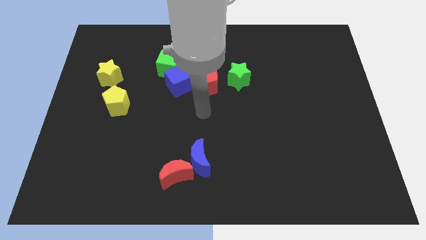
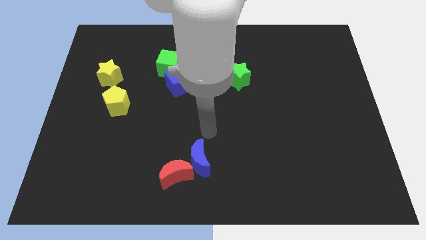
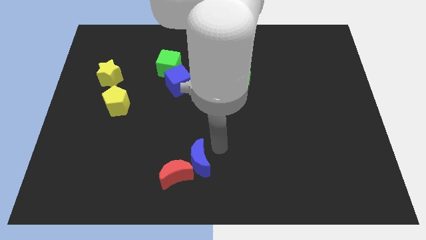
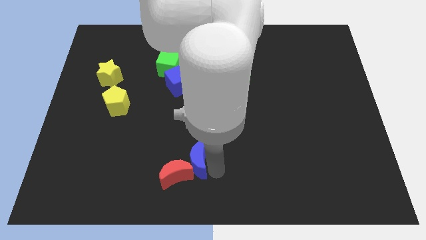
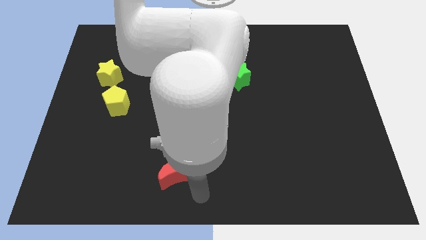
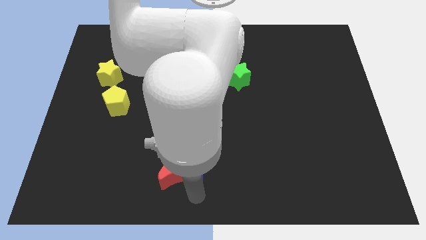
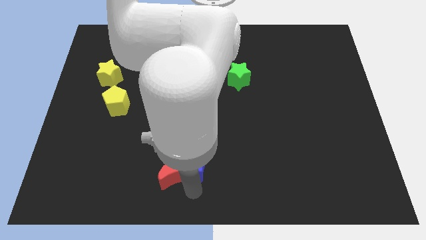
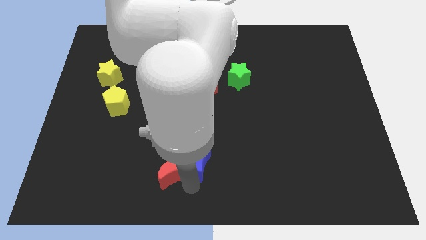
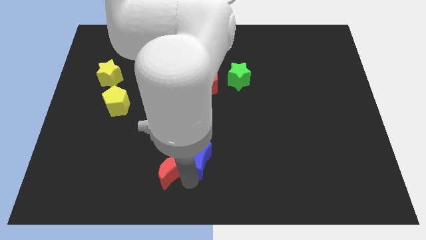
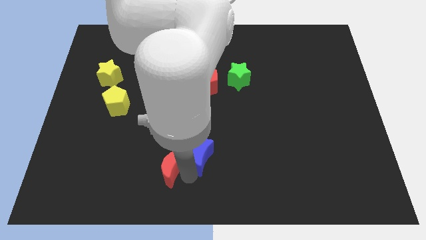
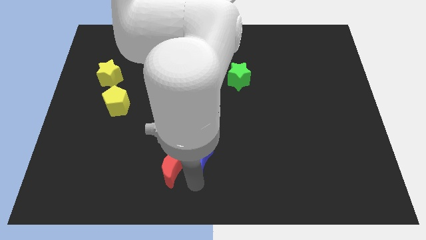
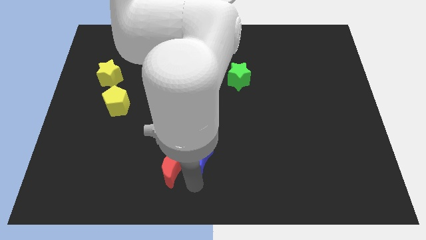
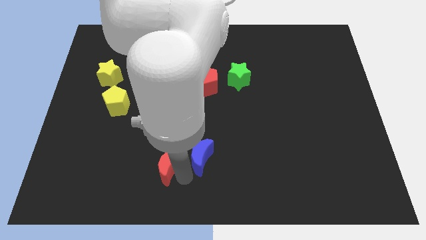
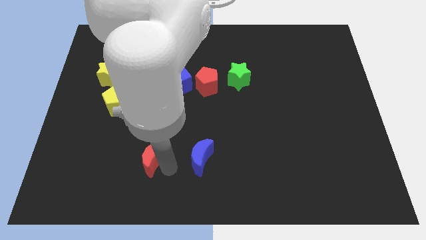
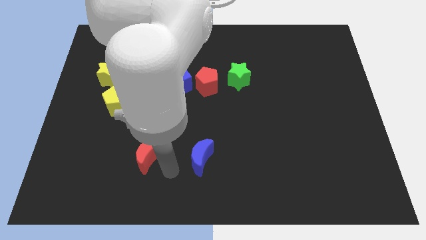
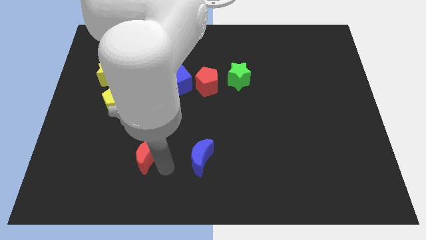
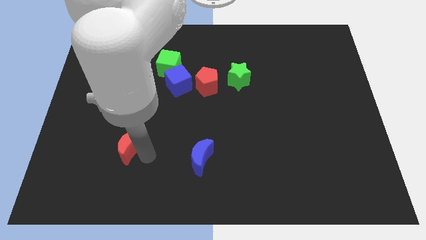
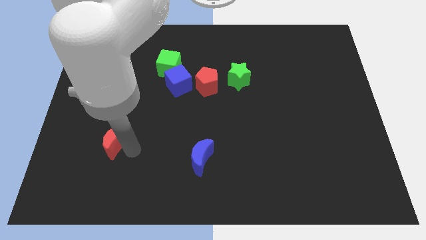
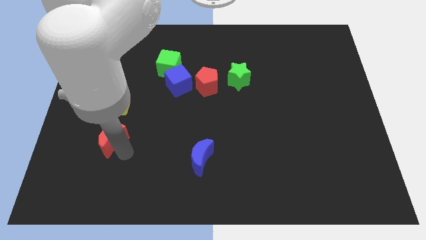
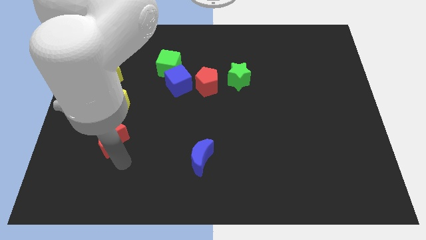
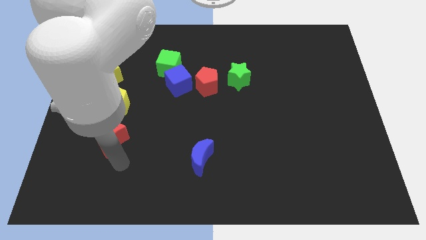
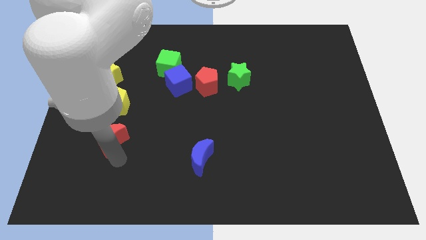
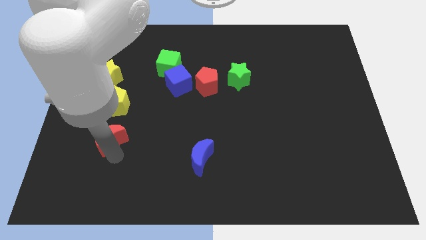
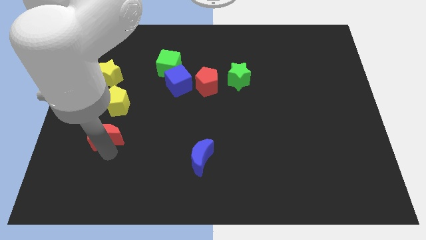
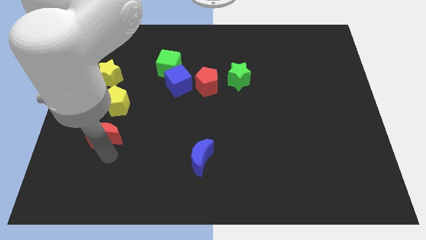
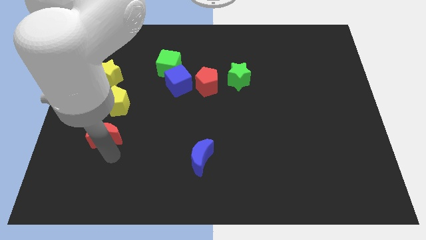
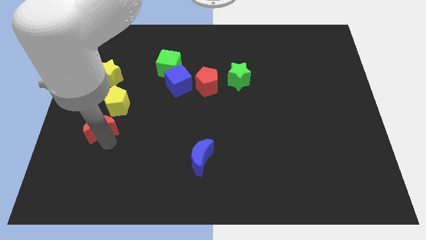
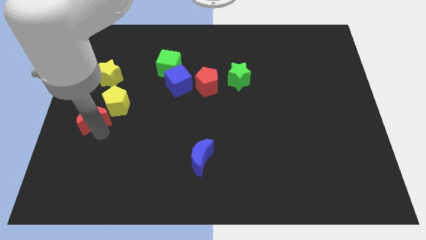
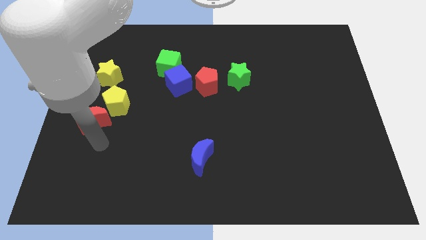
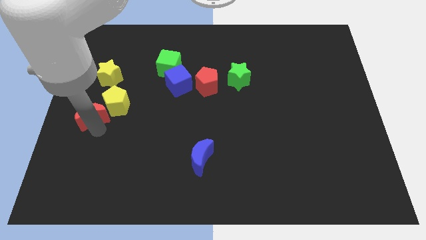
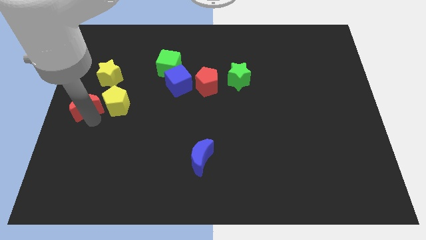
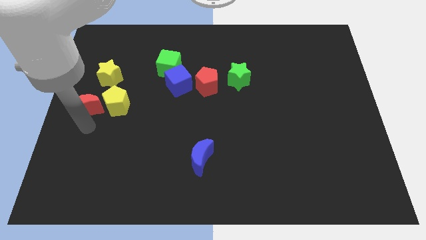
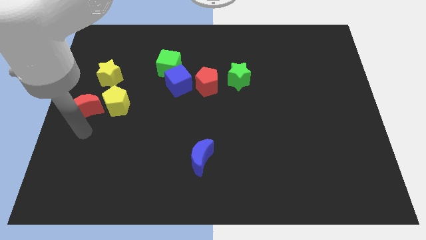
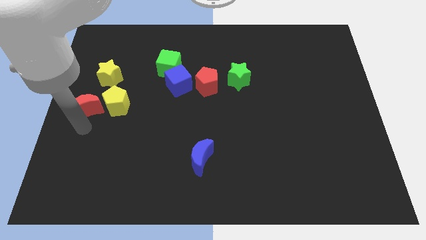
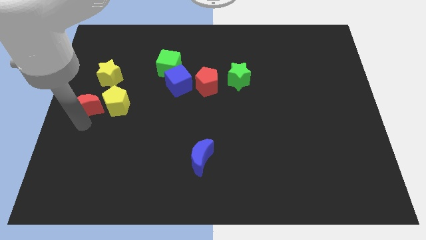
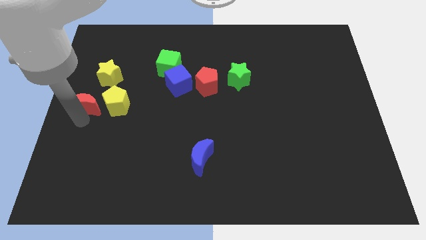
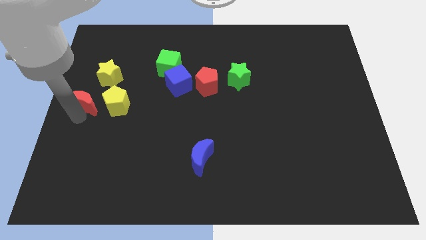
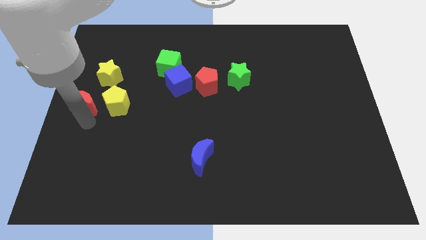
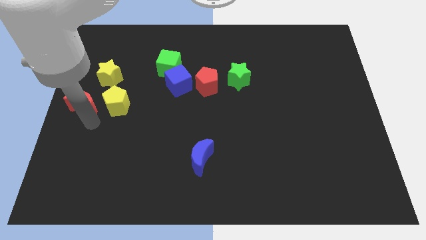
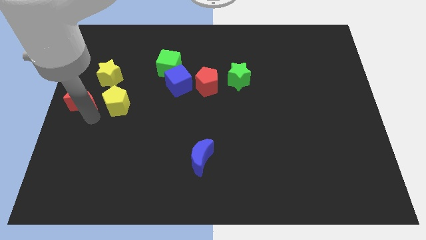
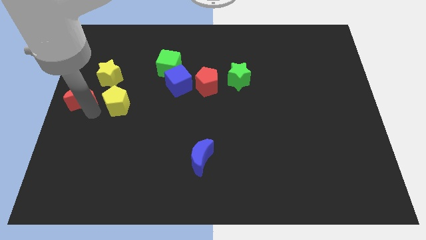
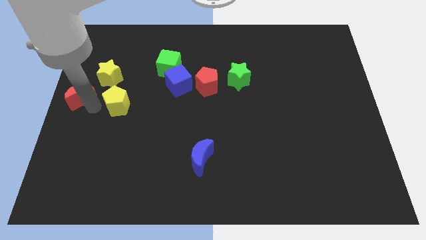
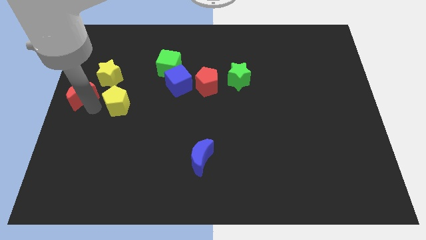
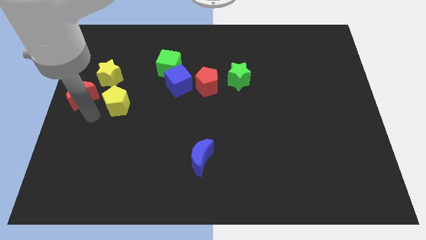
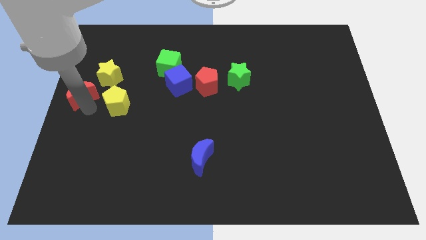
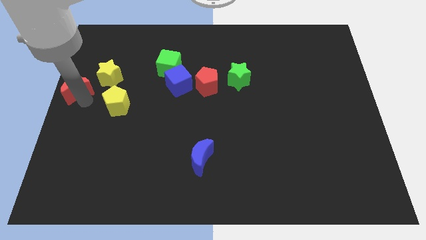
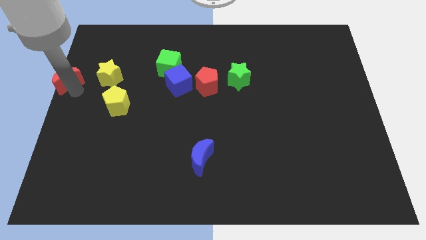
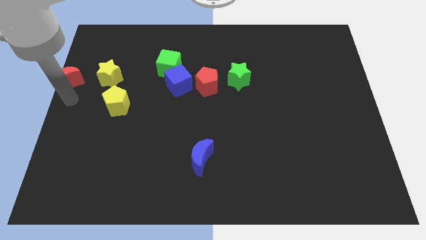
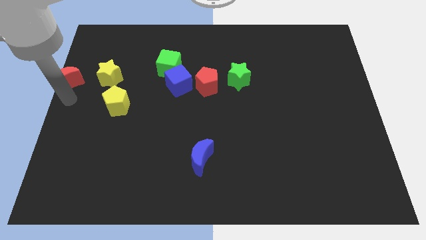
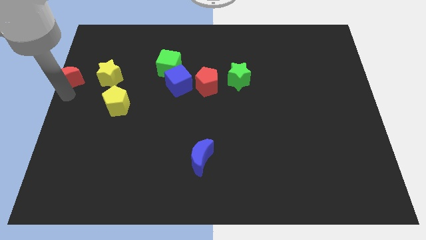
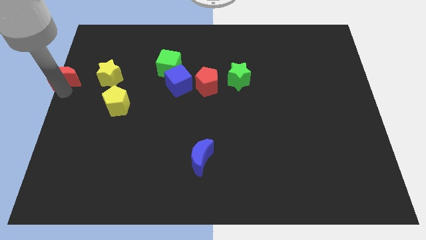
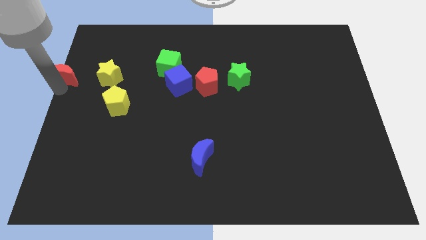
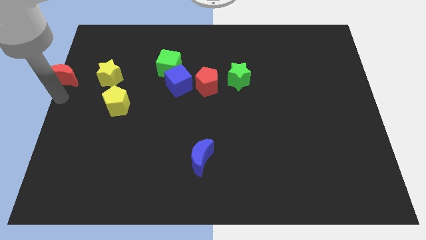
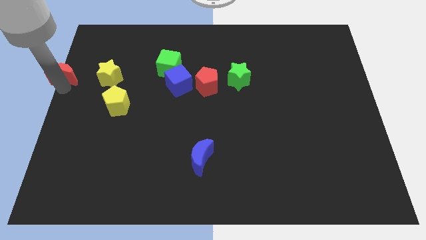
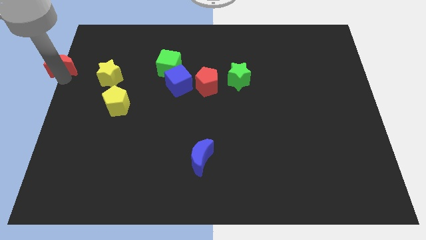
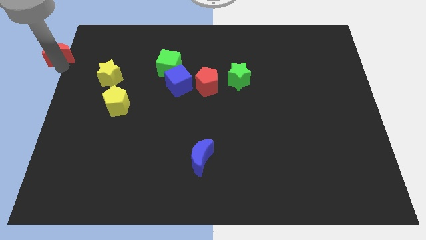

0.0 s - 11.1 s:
slide the red moon to the top left corner

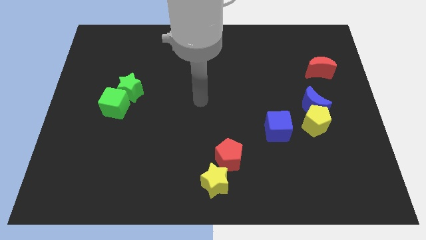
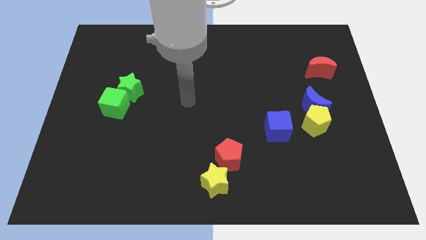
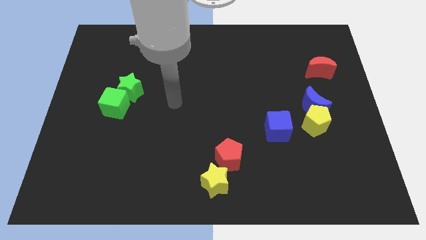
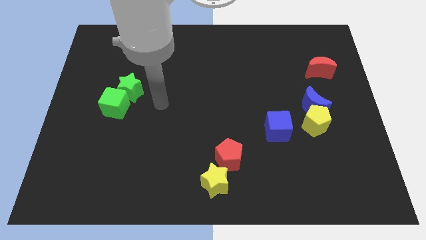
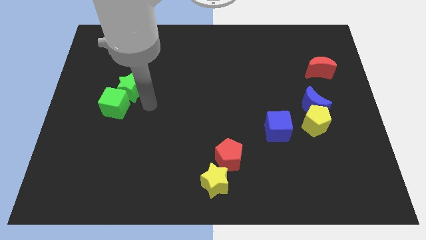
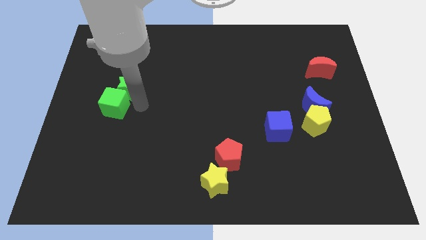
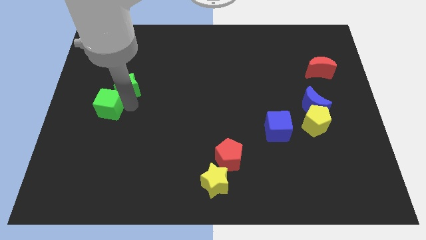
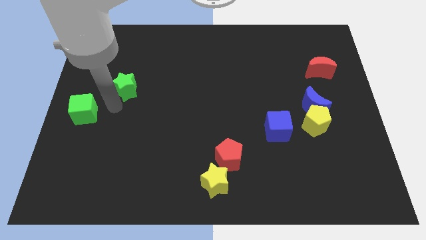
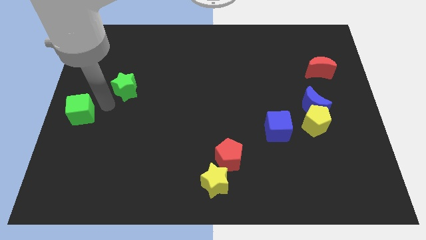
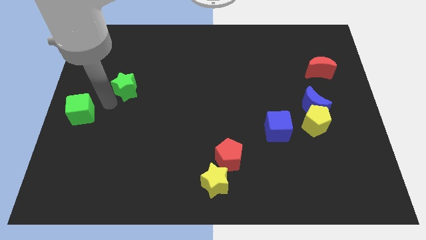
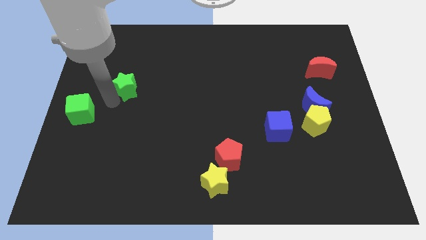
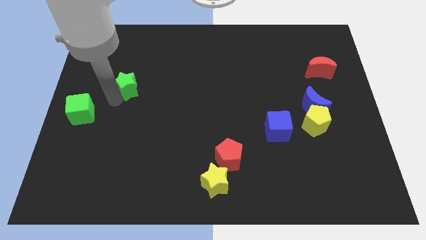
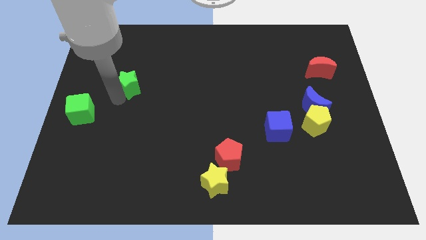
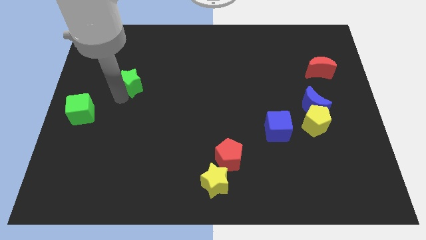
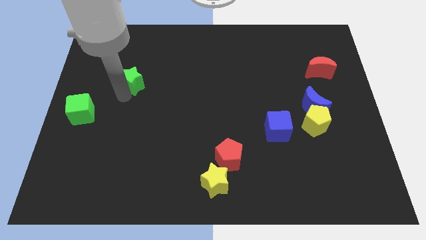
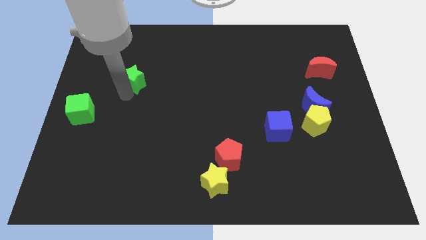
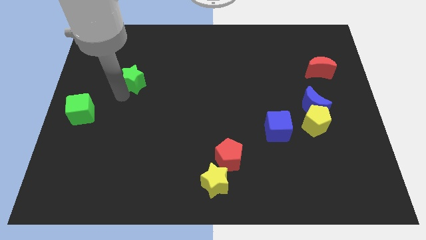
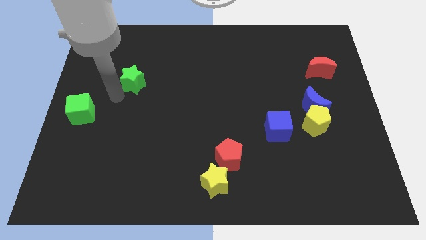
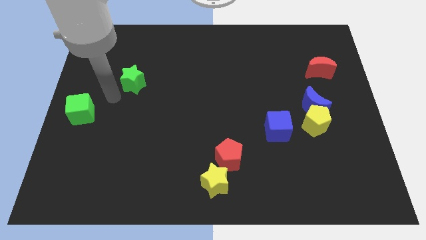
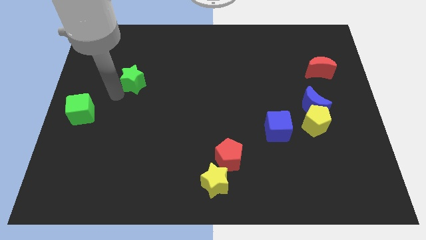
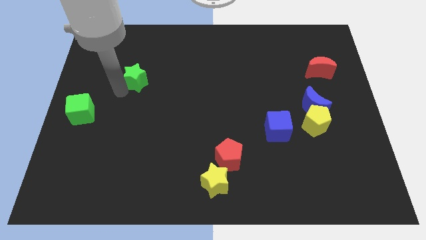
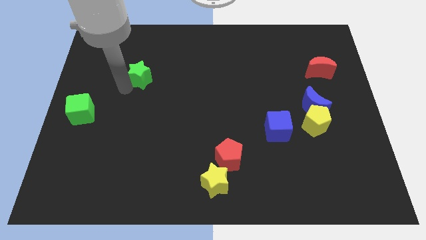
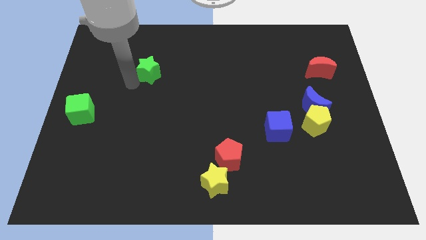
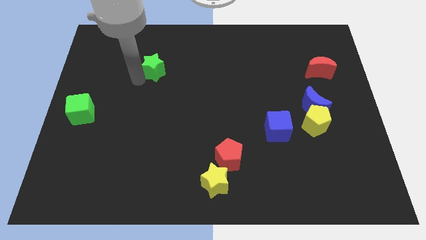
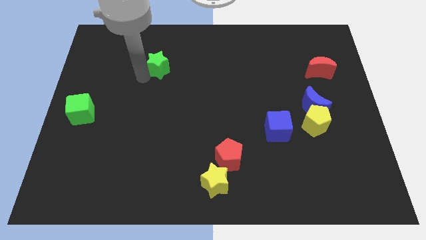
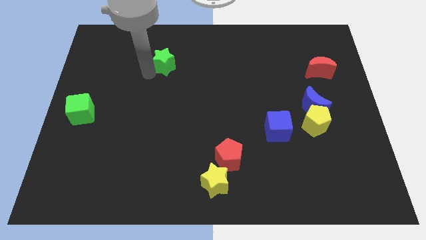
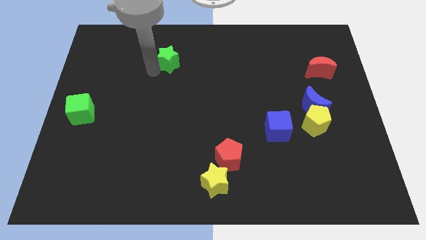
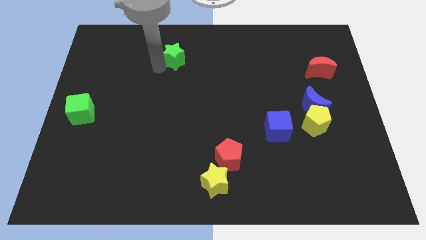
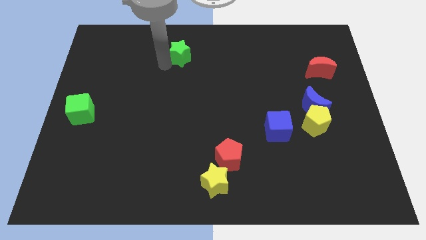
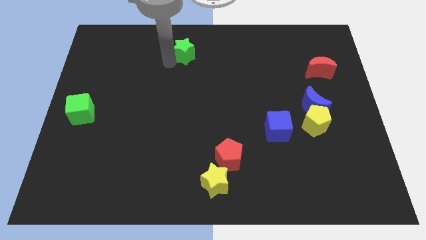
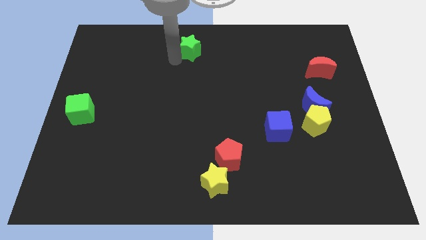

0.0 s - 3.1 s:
move the green star to the towards your base
